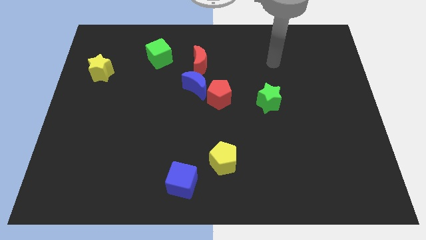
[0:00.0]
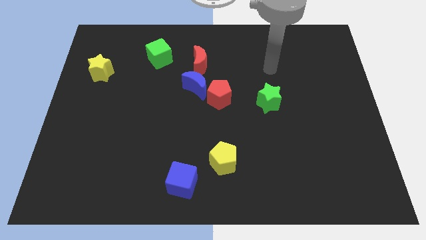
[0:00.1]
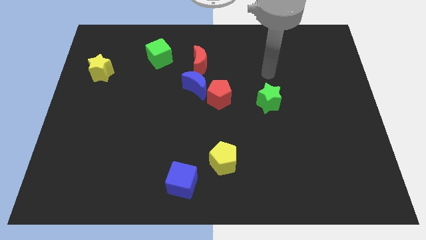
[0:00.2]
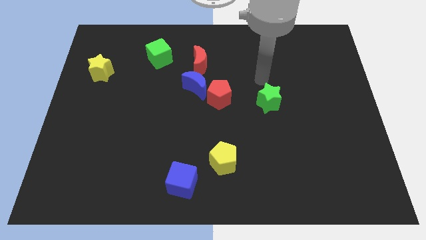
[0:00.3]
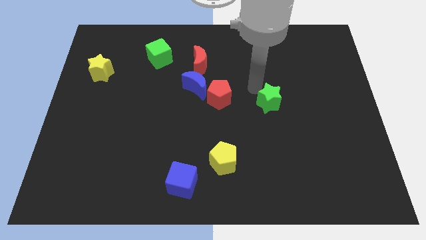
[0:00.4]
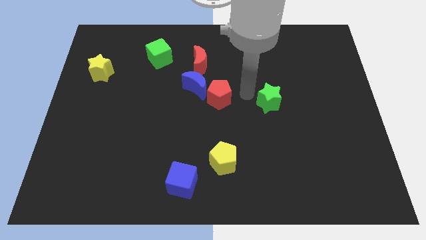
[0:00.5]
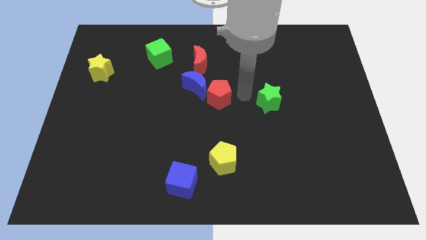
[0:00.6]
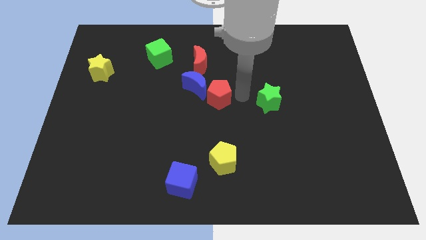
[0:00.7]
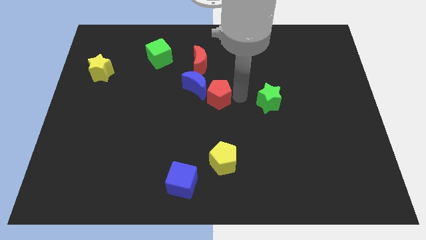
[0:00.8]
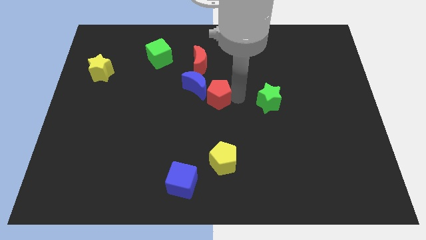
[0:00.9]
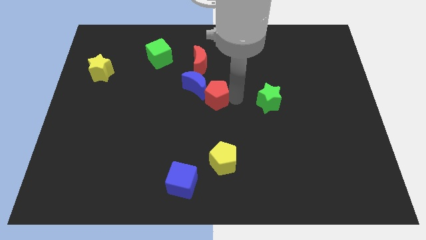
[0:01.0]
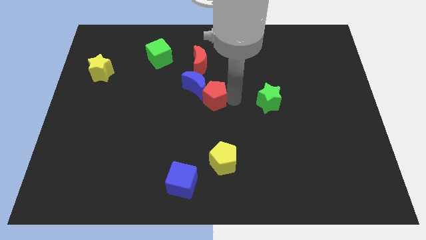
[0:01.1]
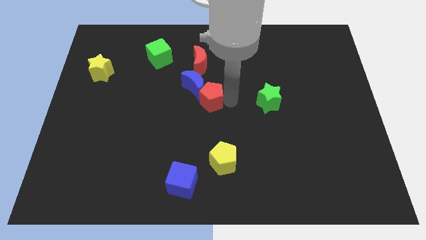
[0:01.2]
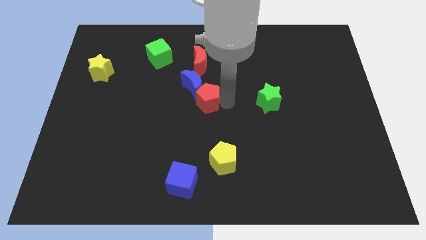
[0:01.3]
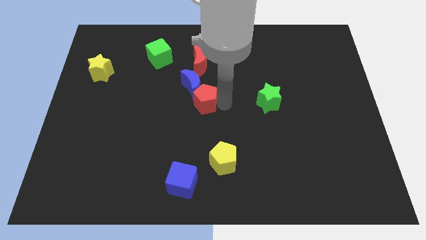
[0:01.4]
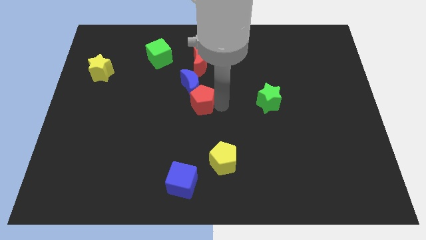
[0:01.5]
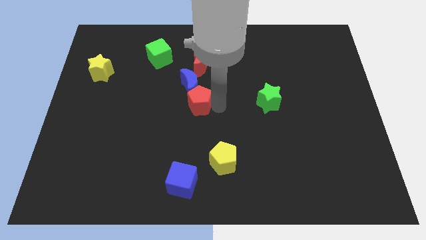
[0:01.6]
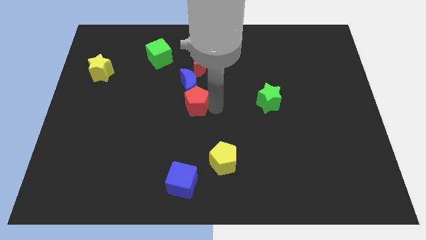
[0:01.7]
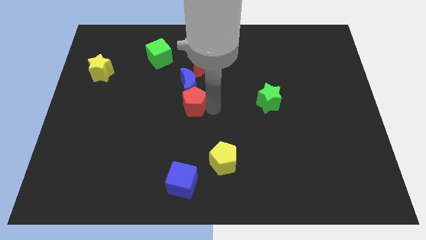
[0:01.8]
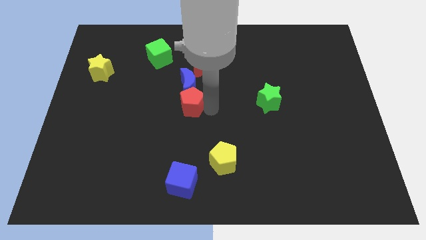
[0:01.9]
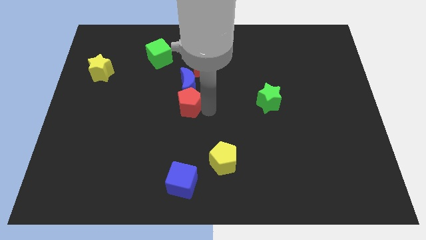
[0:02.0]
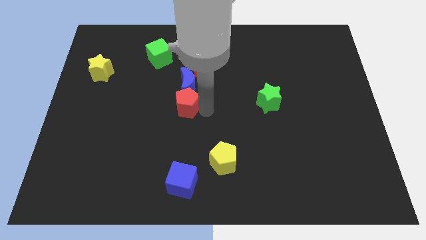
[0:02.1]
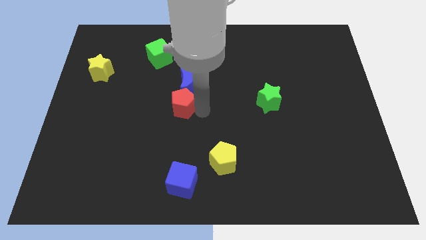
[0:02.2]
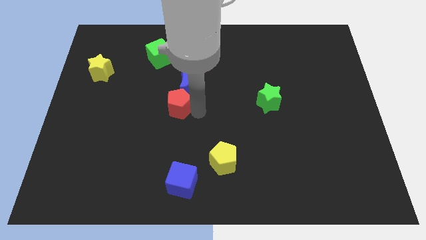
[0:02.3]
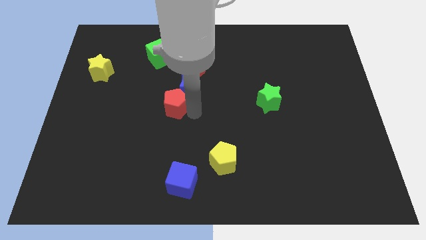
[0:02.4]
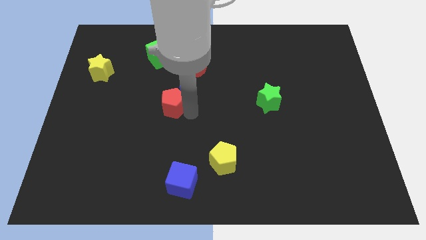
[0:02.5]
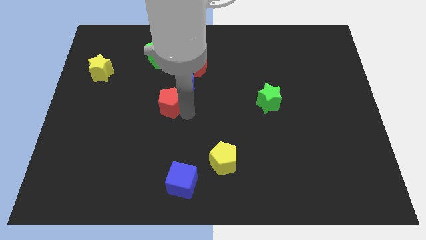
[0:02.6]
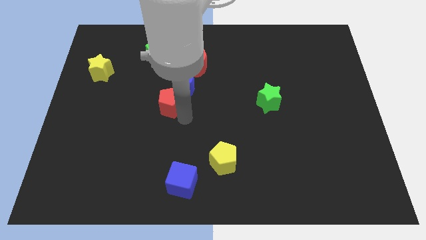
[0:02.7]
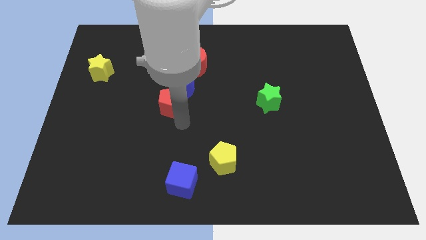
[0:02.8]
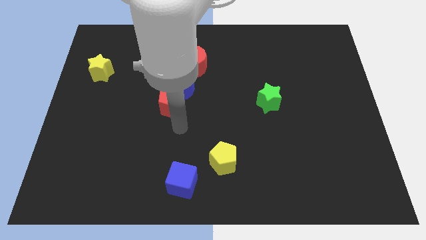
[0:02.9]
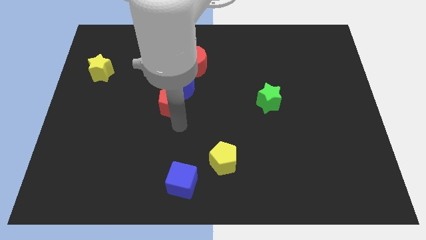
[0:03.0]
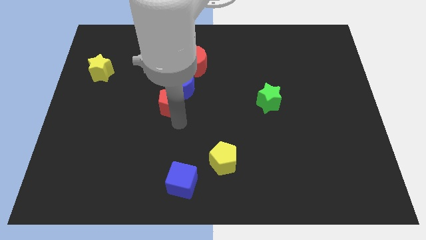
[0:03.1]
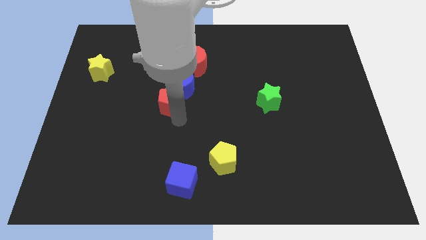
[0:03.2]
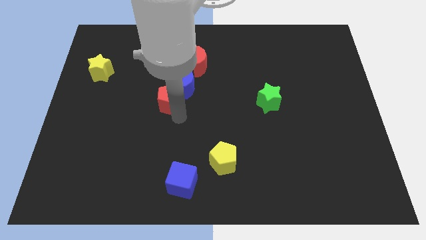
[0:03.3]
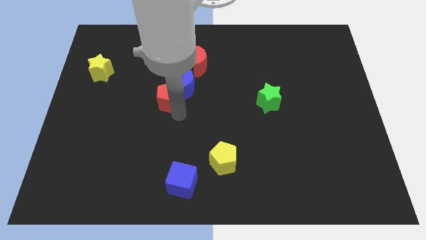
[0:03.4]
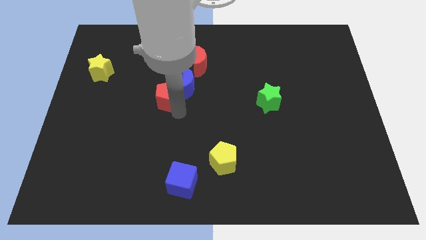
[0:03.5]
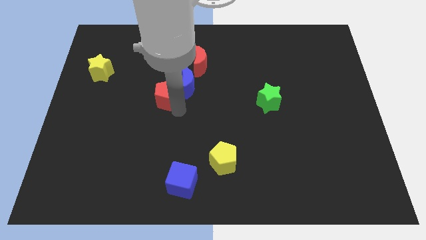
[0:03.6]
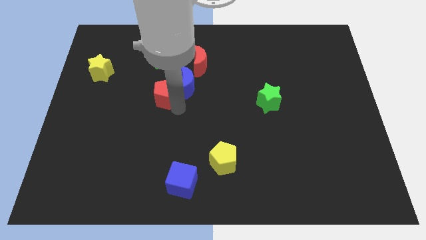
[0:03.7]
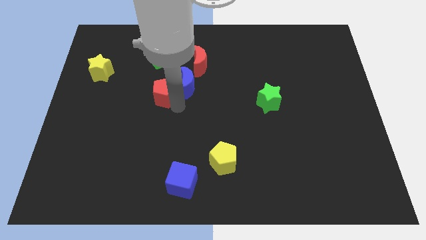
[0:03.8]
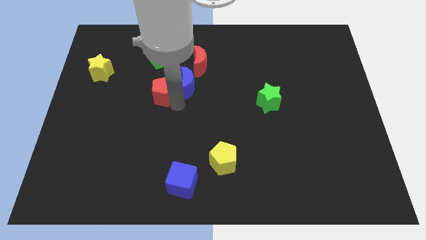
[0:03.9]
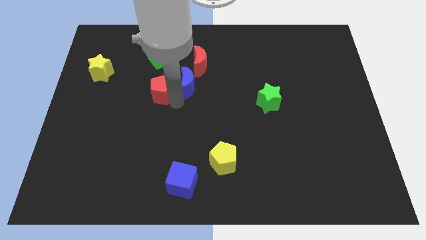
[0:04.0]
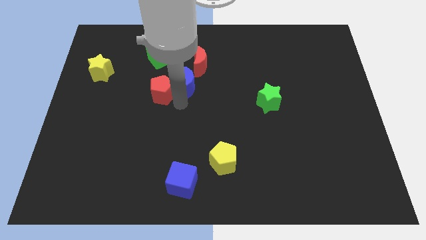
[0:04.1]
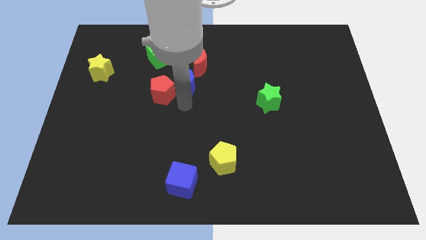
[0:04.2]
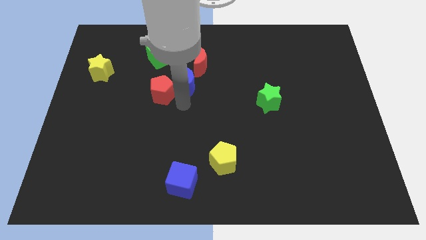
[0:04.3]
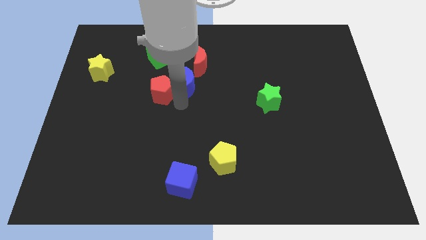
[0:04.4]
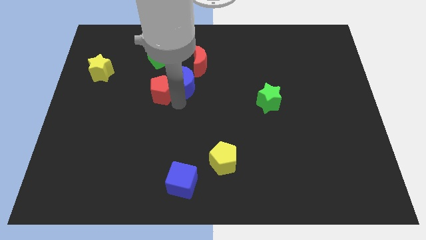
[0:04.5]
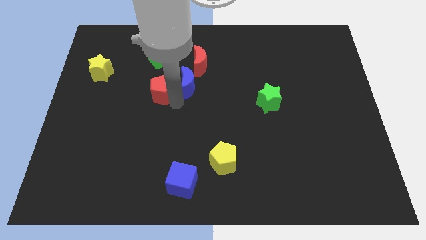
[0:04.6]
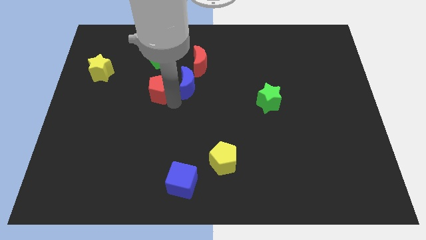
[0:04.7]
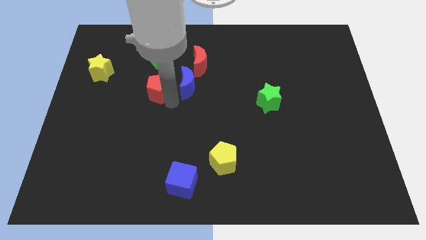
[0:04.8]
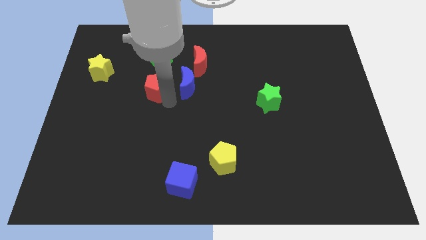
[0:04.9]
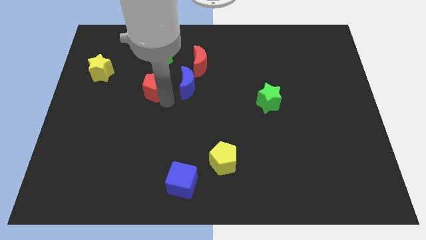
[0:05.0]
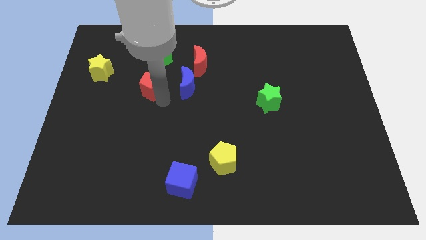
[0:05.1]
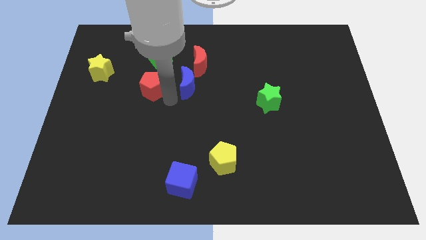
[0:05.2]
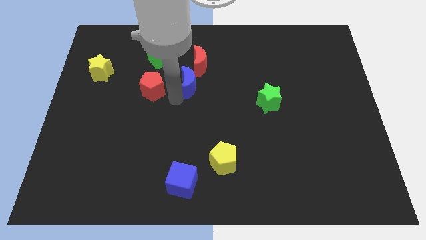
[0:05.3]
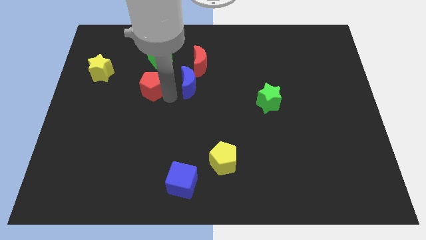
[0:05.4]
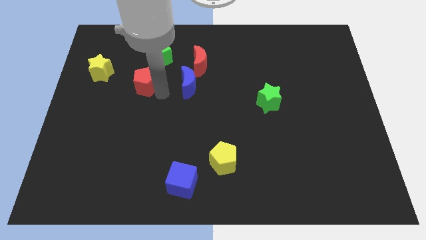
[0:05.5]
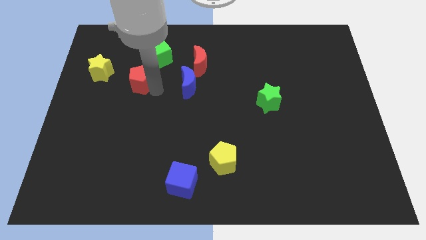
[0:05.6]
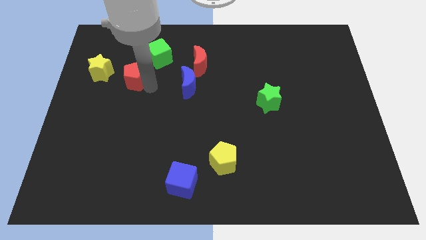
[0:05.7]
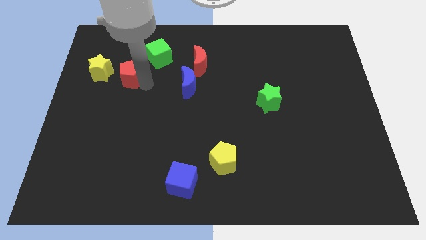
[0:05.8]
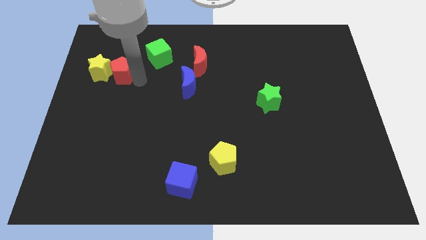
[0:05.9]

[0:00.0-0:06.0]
put the red pentagon next to the yellow star

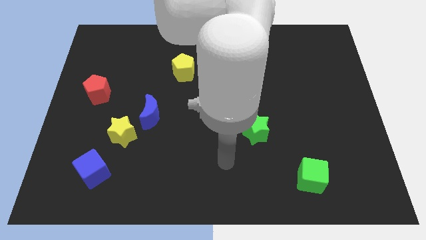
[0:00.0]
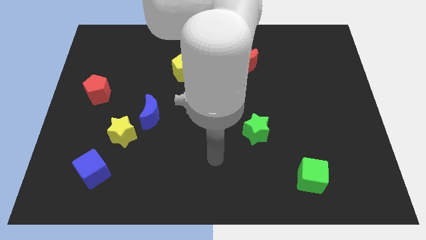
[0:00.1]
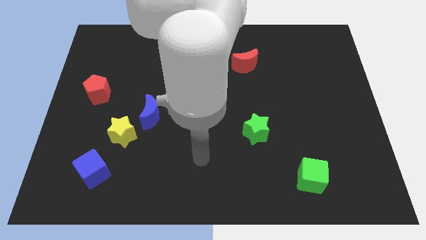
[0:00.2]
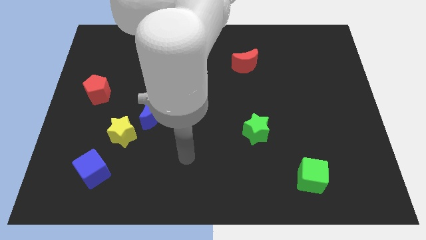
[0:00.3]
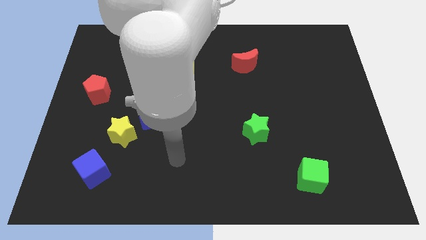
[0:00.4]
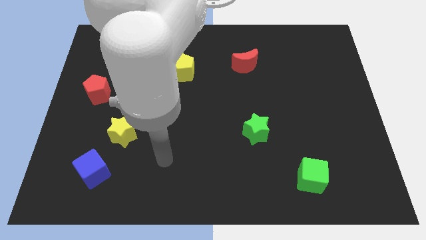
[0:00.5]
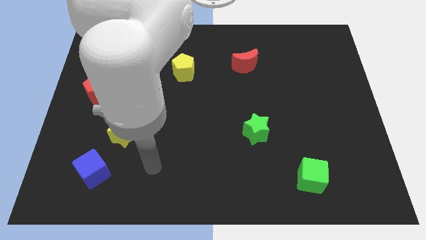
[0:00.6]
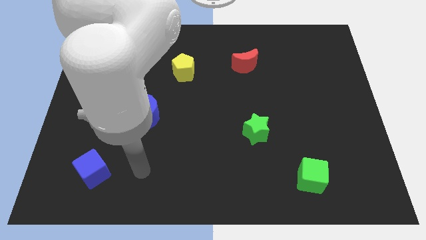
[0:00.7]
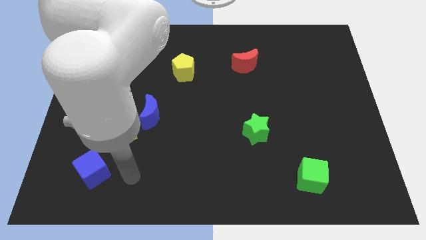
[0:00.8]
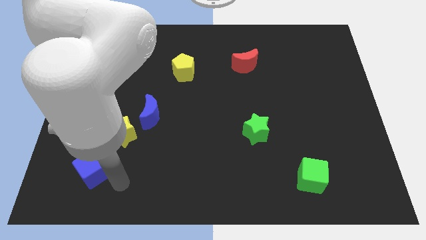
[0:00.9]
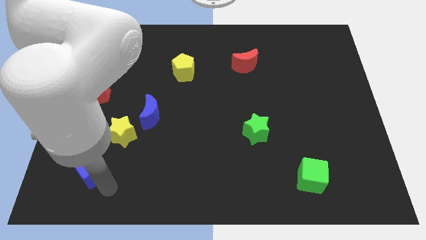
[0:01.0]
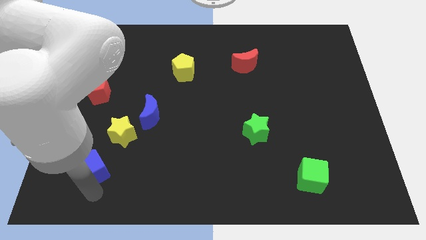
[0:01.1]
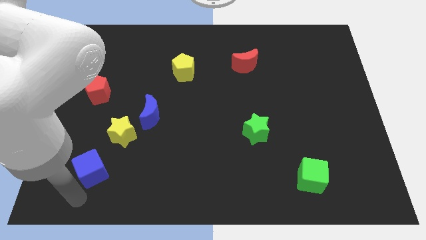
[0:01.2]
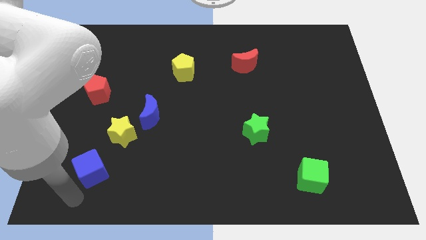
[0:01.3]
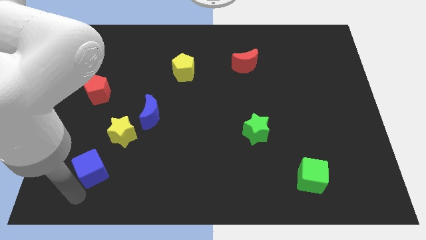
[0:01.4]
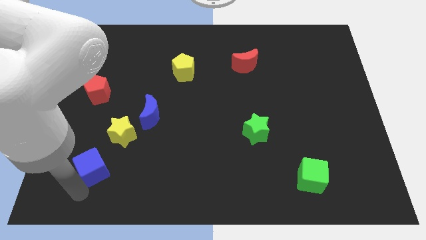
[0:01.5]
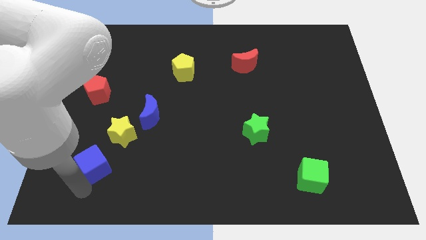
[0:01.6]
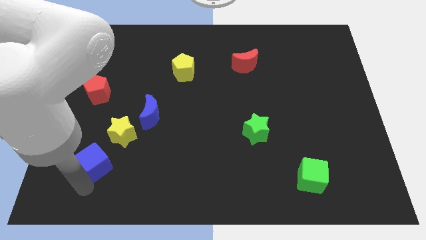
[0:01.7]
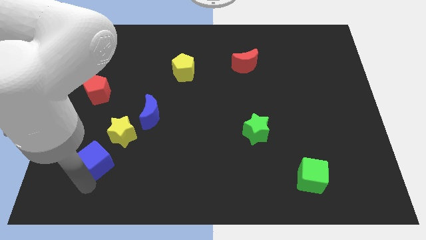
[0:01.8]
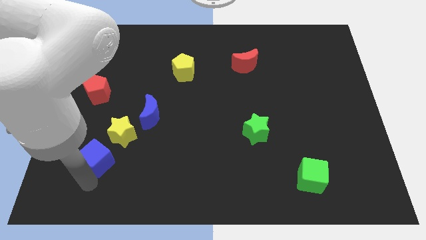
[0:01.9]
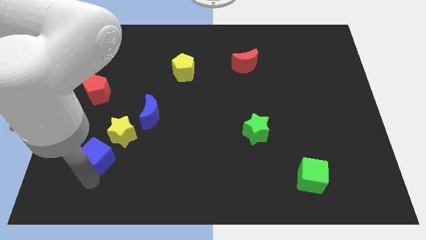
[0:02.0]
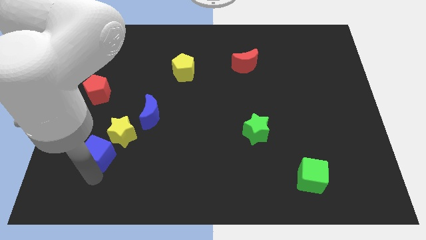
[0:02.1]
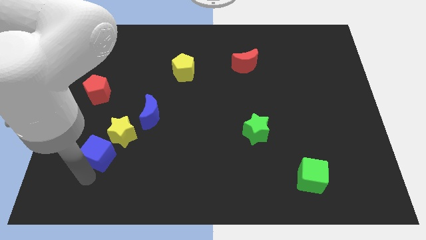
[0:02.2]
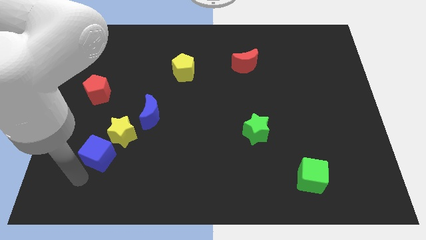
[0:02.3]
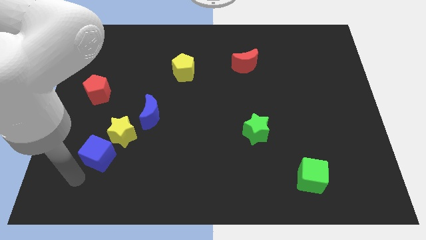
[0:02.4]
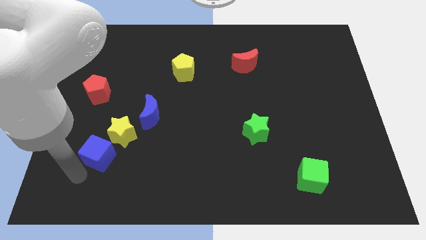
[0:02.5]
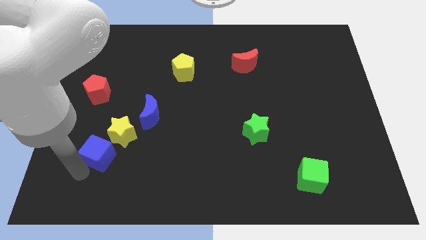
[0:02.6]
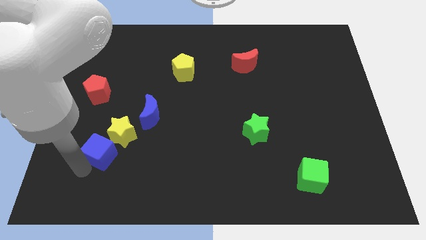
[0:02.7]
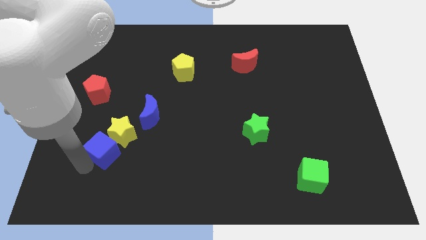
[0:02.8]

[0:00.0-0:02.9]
move the blue cube close to the yellow star
